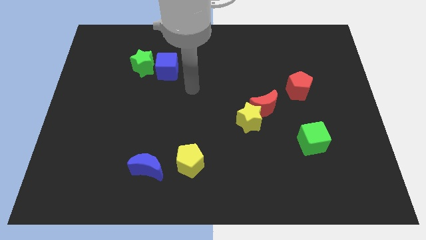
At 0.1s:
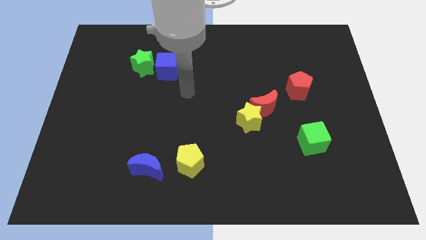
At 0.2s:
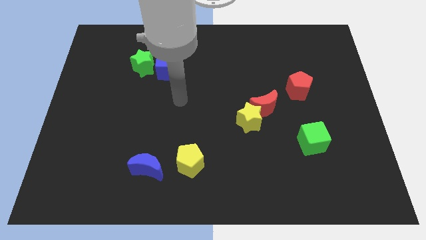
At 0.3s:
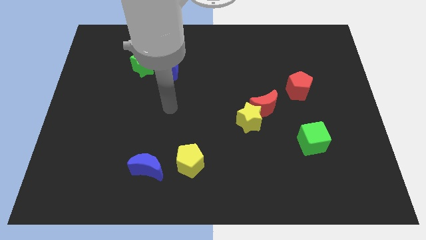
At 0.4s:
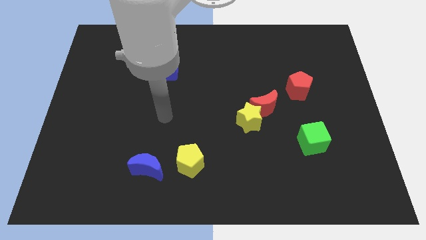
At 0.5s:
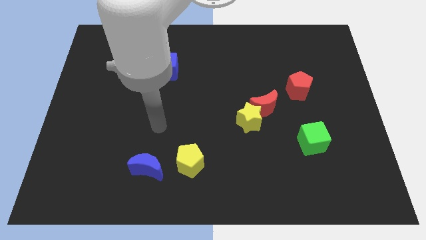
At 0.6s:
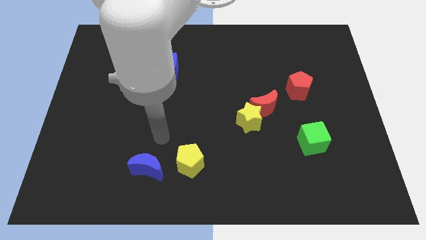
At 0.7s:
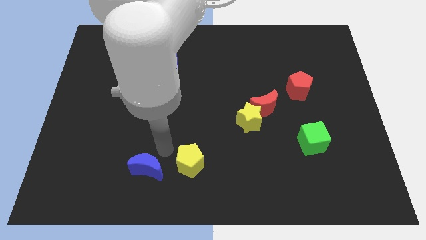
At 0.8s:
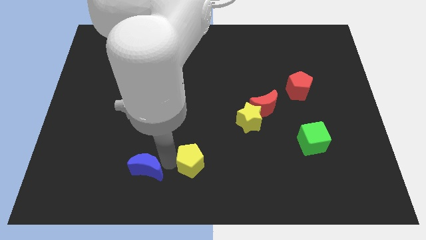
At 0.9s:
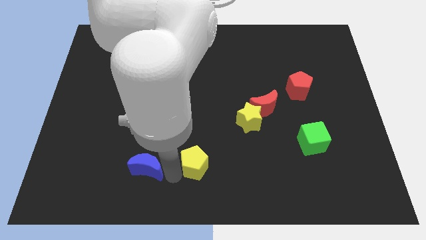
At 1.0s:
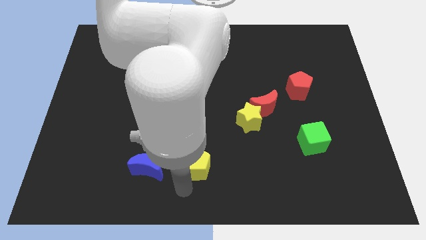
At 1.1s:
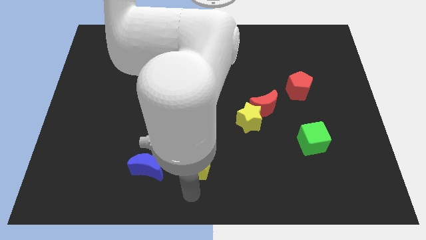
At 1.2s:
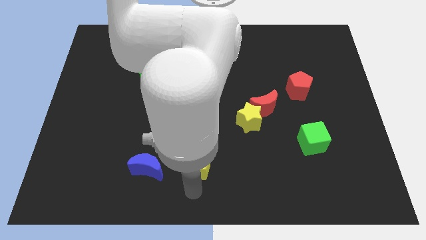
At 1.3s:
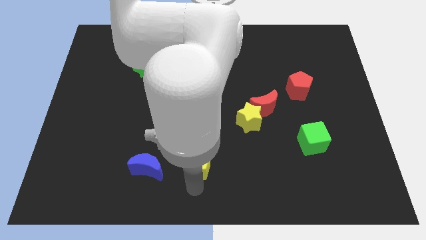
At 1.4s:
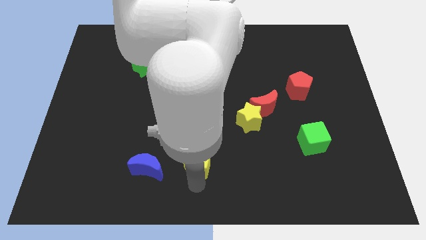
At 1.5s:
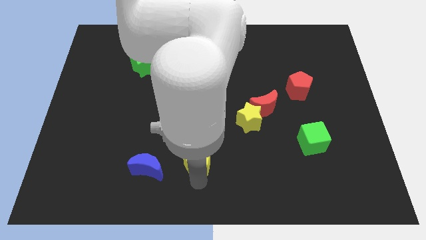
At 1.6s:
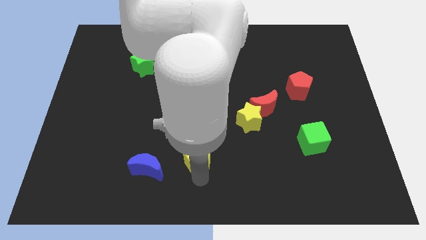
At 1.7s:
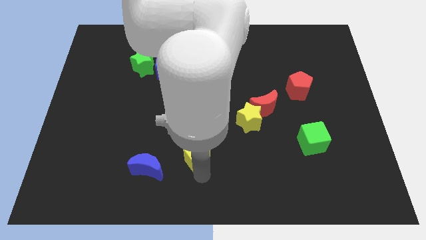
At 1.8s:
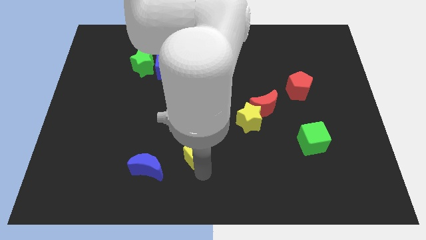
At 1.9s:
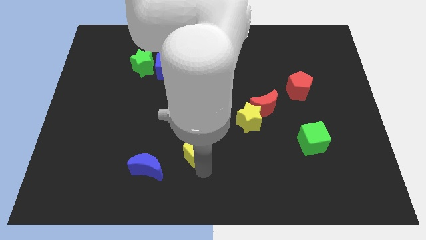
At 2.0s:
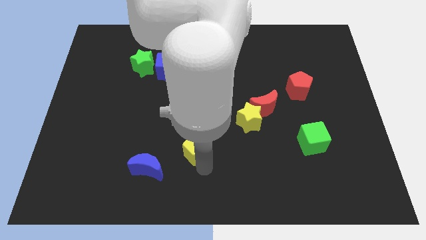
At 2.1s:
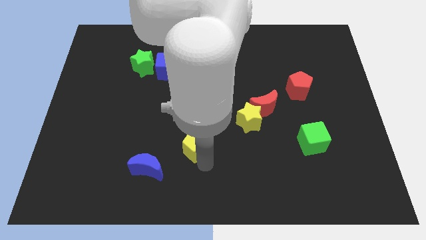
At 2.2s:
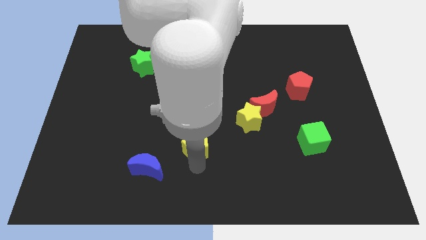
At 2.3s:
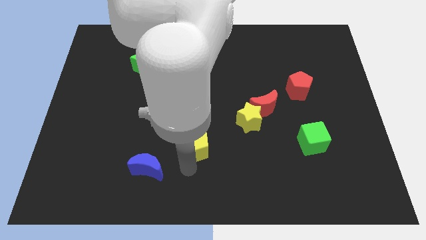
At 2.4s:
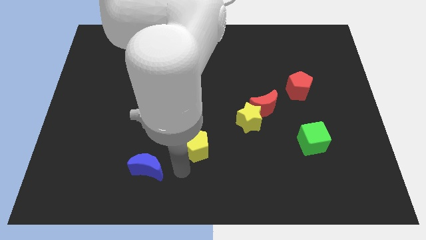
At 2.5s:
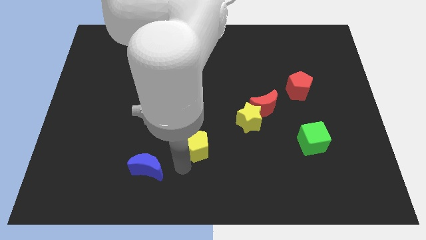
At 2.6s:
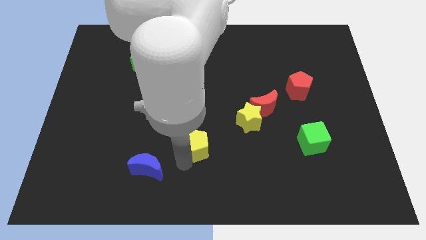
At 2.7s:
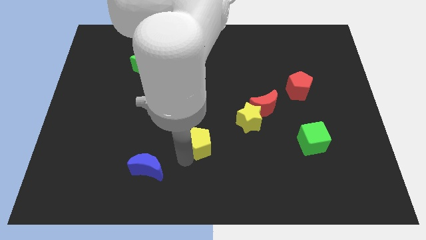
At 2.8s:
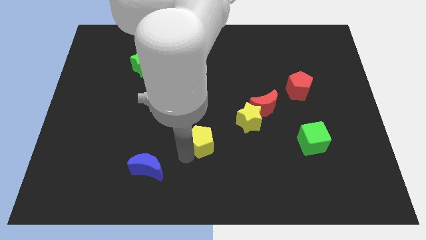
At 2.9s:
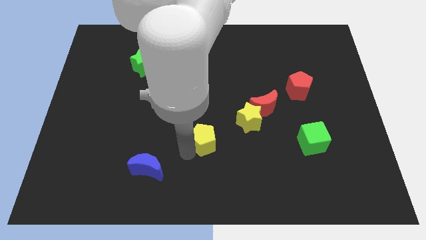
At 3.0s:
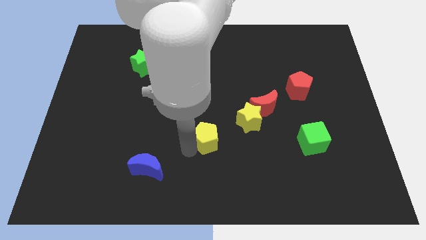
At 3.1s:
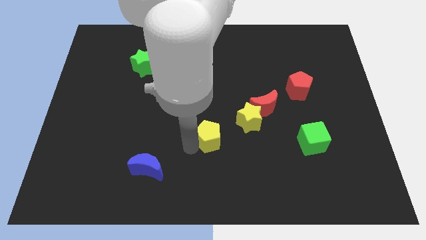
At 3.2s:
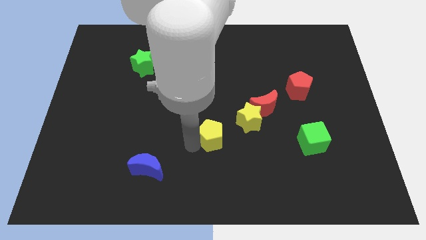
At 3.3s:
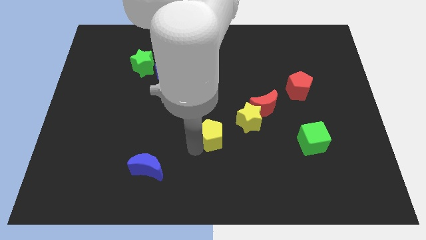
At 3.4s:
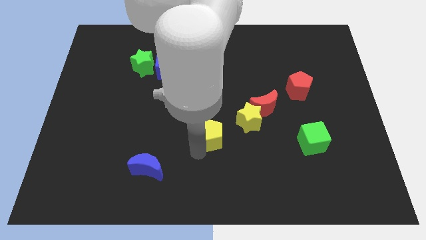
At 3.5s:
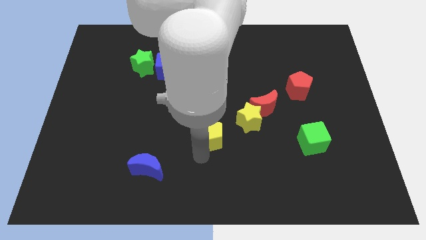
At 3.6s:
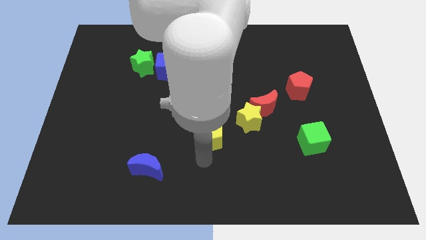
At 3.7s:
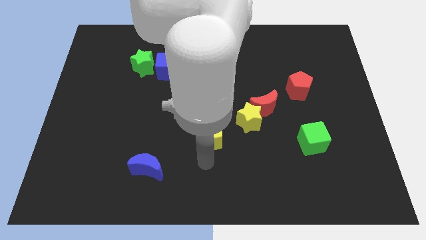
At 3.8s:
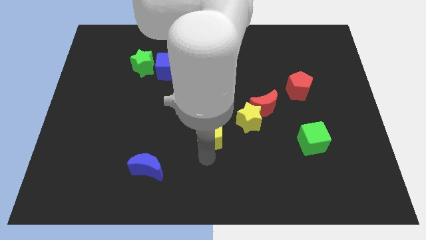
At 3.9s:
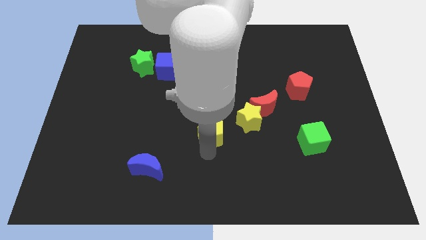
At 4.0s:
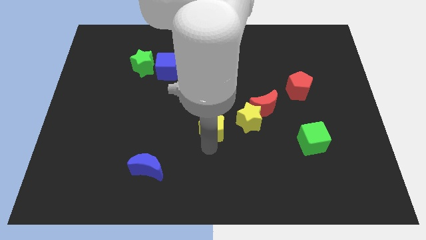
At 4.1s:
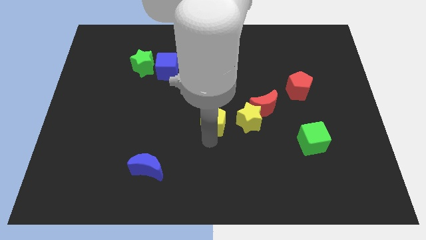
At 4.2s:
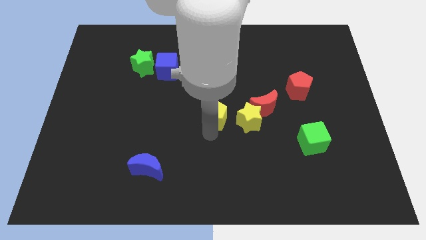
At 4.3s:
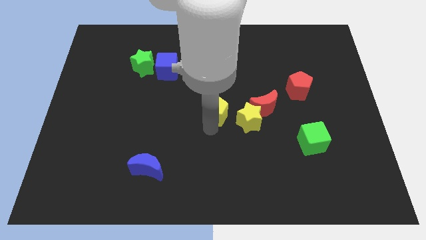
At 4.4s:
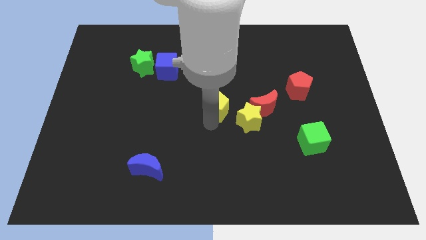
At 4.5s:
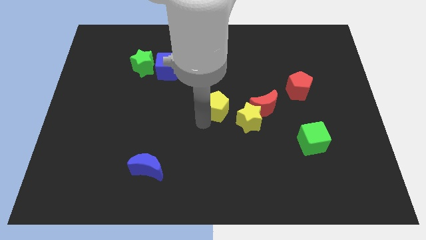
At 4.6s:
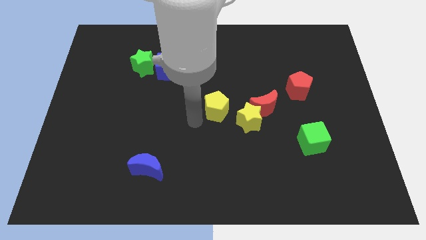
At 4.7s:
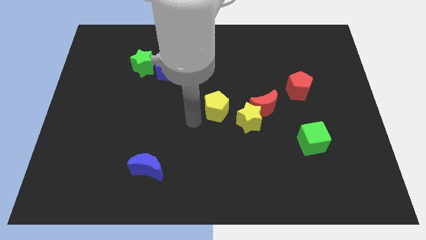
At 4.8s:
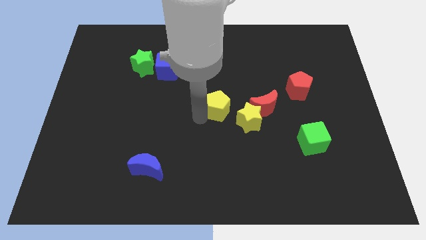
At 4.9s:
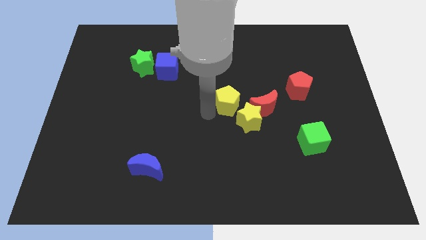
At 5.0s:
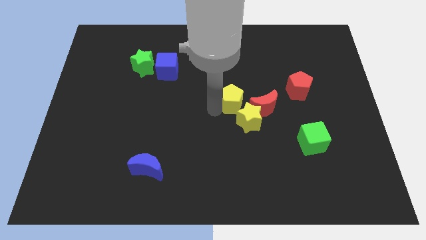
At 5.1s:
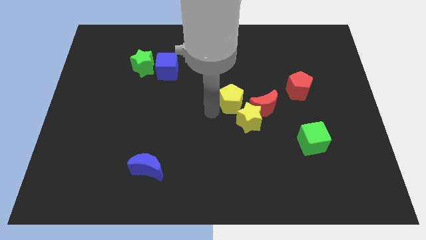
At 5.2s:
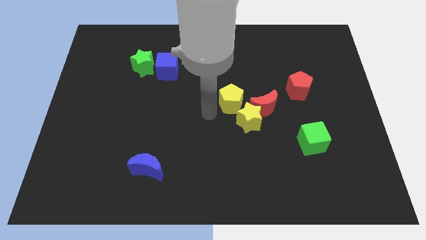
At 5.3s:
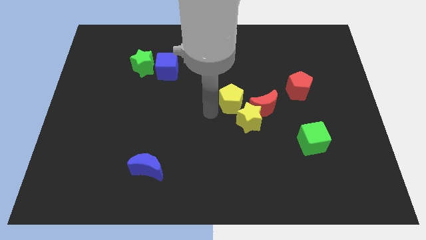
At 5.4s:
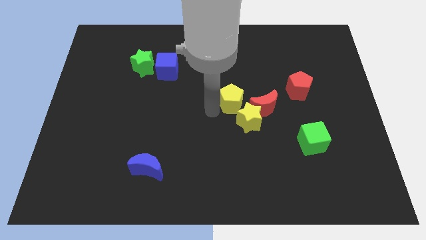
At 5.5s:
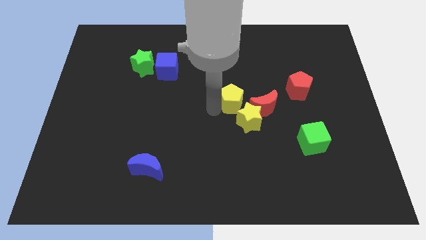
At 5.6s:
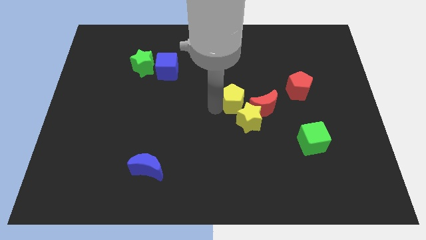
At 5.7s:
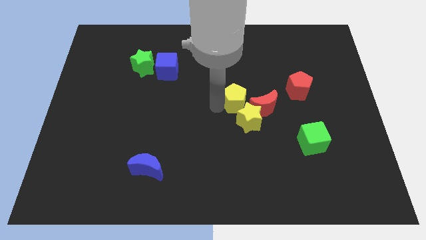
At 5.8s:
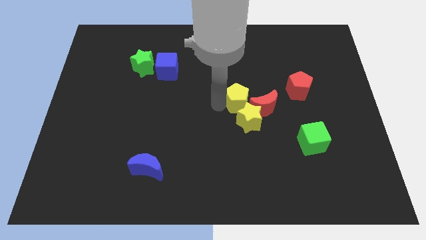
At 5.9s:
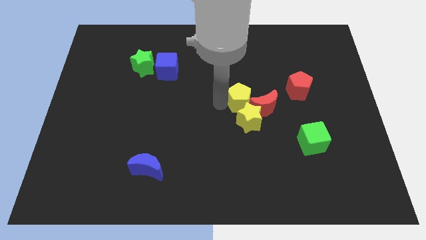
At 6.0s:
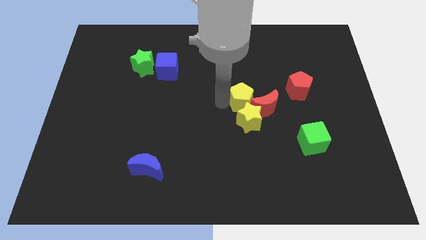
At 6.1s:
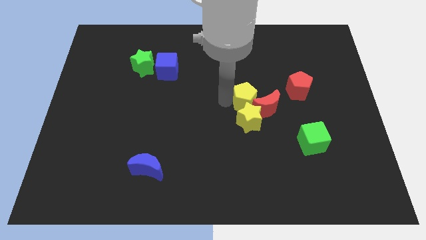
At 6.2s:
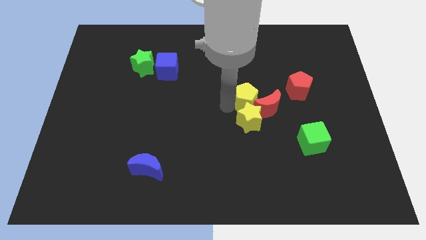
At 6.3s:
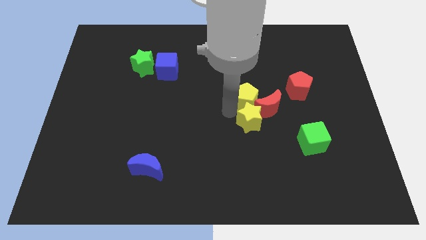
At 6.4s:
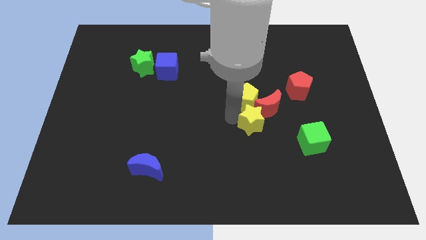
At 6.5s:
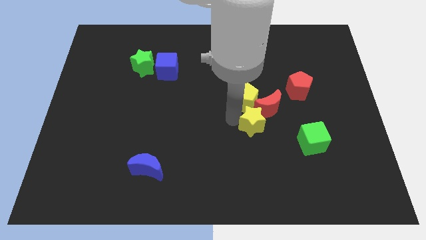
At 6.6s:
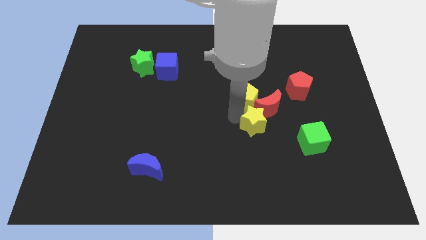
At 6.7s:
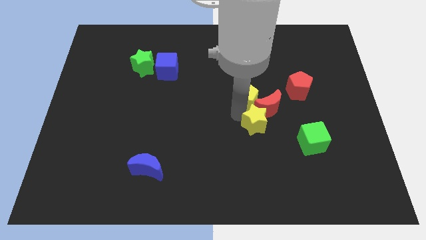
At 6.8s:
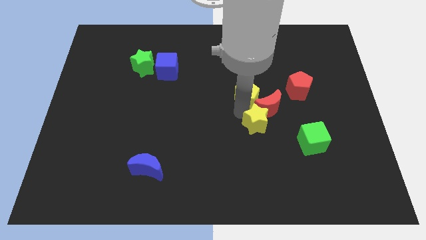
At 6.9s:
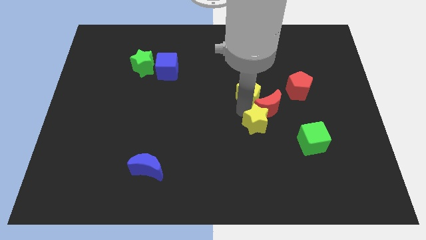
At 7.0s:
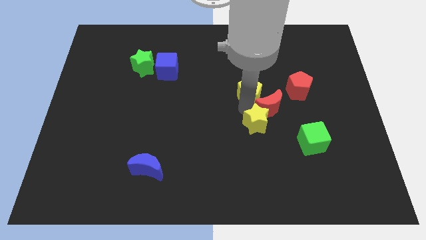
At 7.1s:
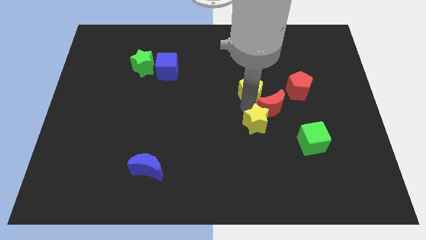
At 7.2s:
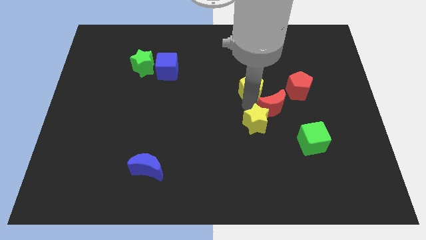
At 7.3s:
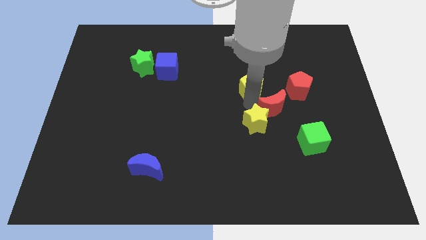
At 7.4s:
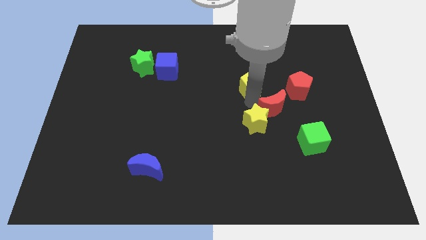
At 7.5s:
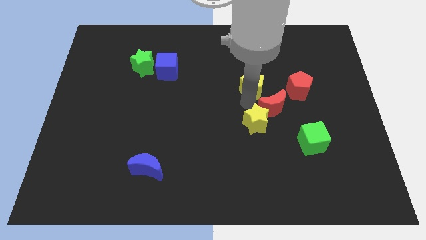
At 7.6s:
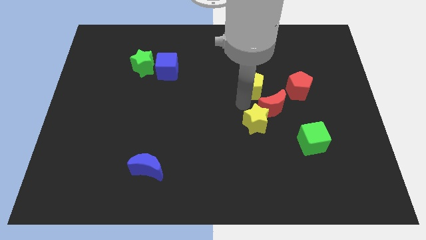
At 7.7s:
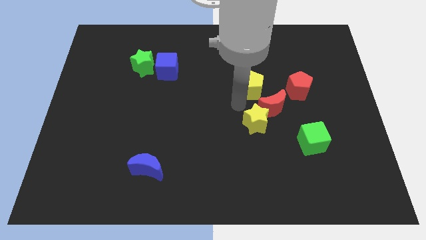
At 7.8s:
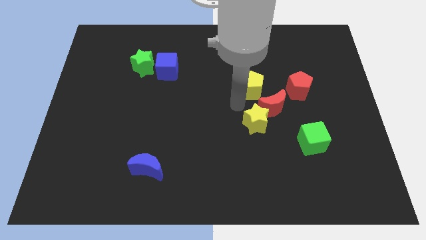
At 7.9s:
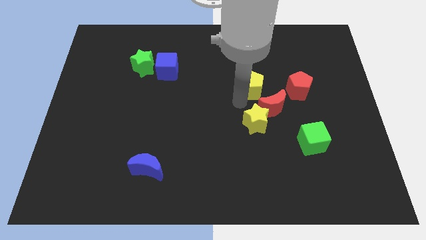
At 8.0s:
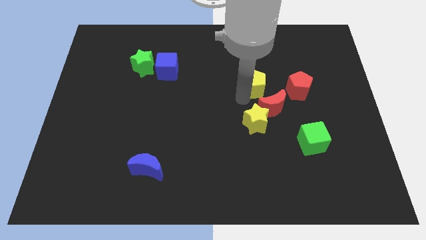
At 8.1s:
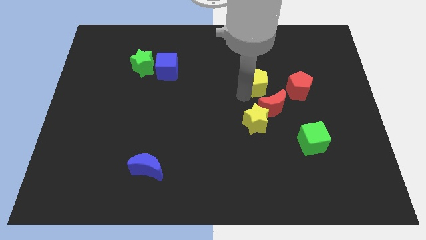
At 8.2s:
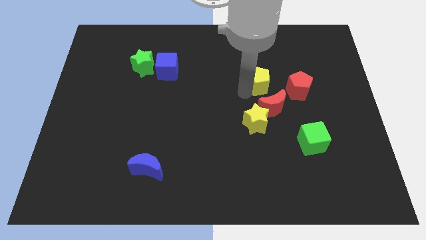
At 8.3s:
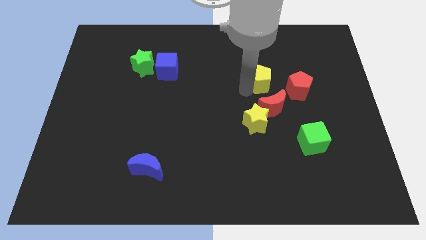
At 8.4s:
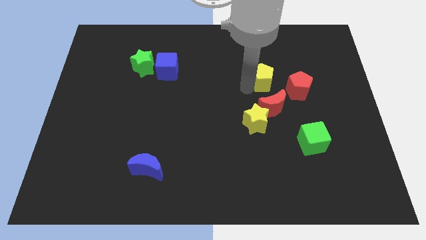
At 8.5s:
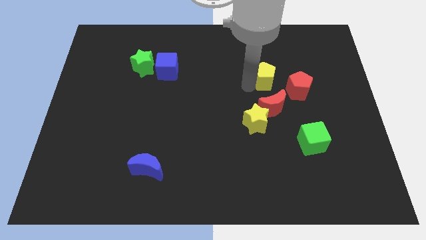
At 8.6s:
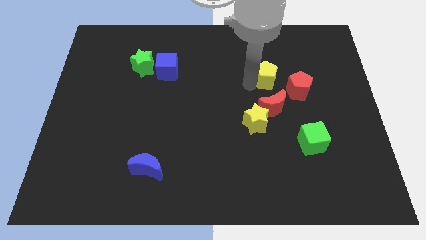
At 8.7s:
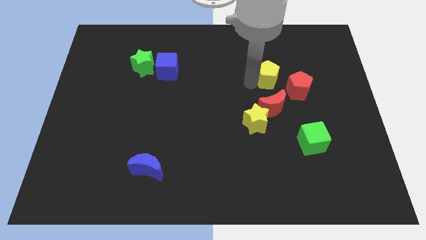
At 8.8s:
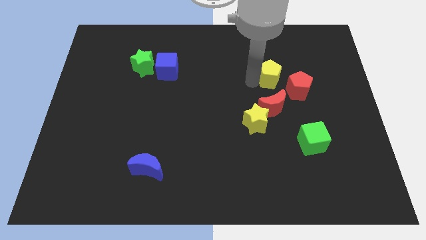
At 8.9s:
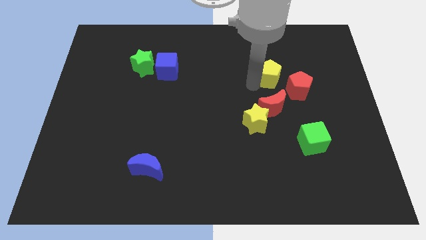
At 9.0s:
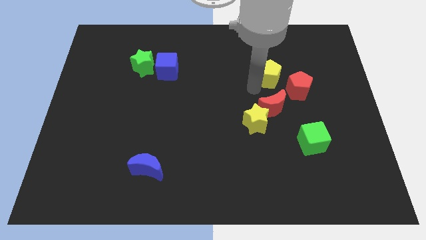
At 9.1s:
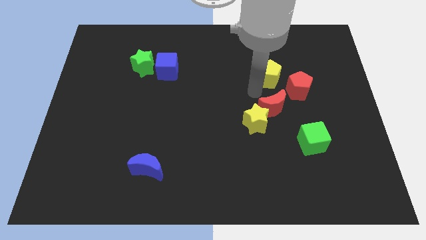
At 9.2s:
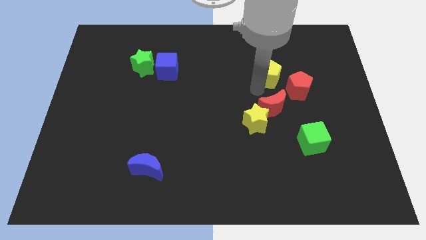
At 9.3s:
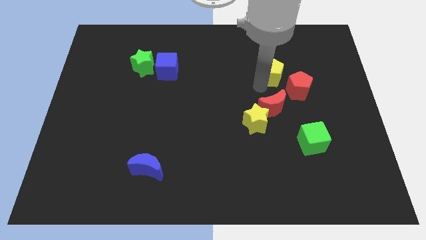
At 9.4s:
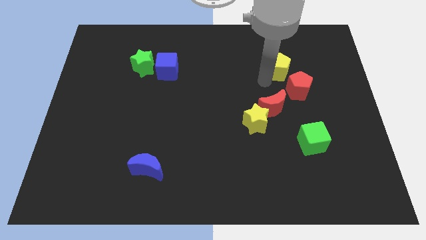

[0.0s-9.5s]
move the yellow pentagon to the top of the red pentagon
